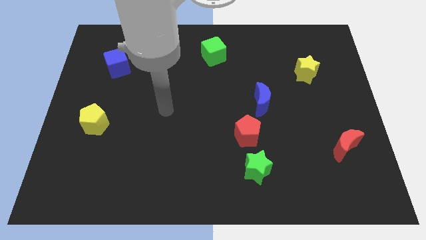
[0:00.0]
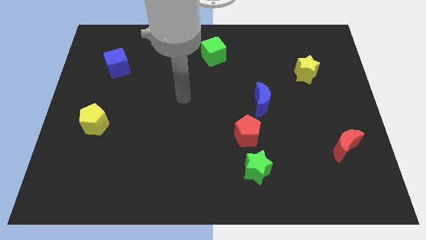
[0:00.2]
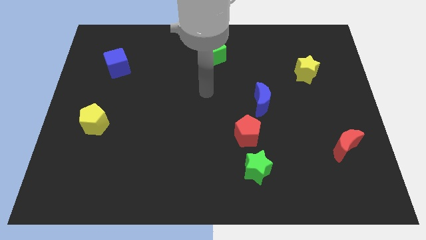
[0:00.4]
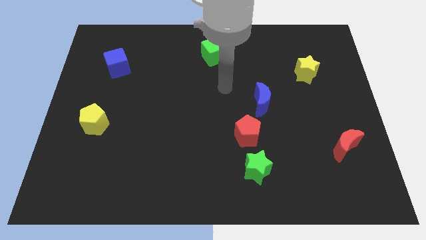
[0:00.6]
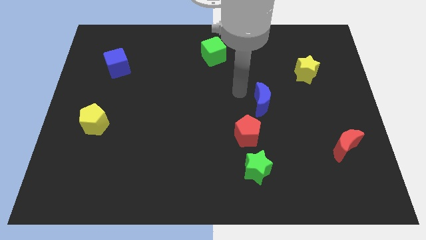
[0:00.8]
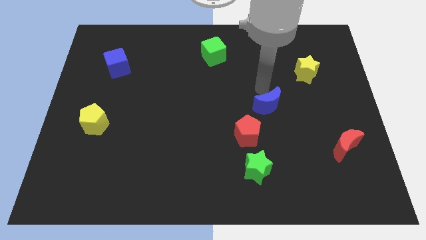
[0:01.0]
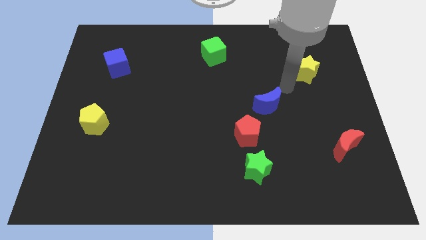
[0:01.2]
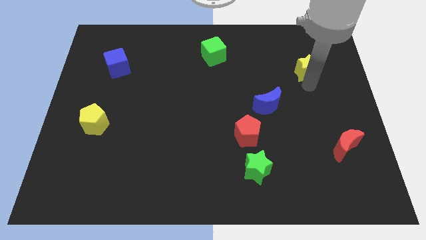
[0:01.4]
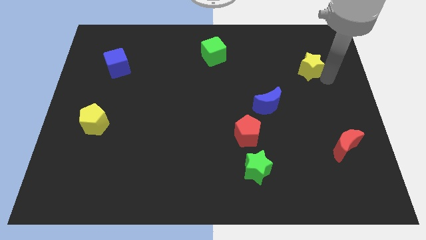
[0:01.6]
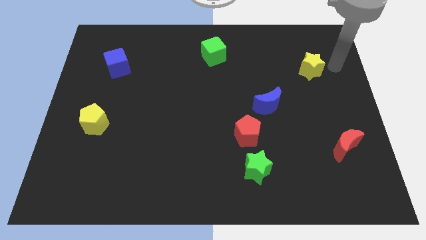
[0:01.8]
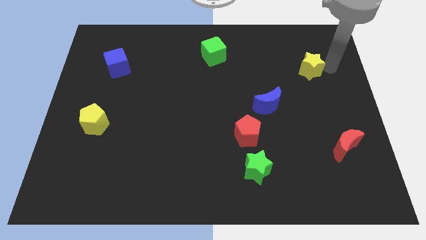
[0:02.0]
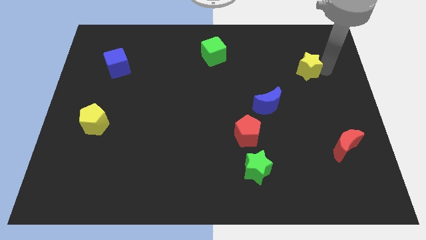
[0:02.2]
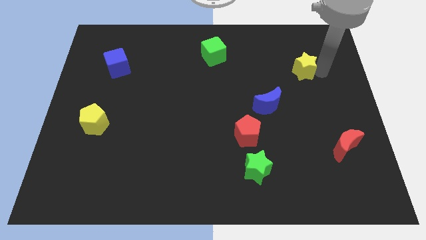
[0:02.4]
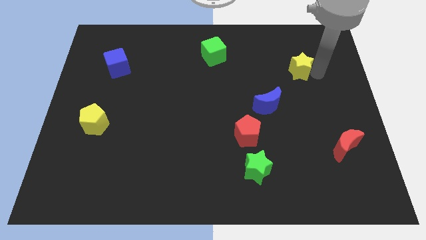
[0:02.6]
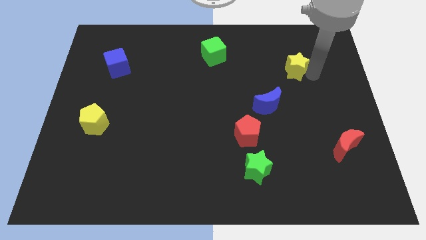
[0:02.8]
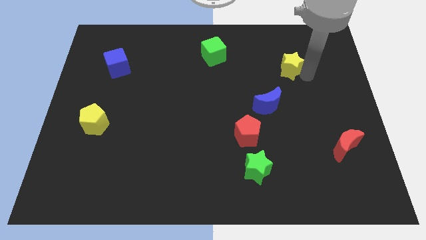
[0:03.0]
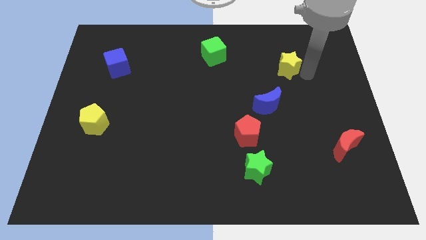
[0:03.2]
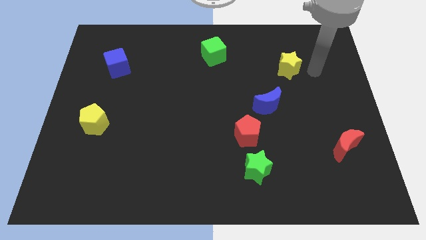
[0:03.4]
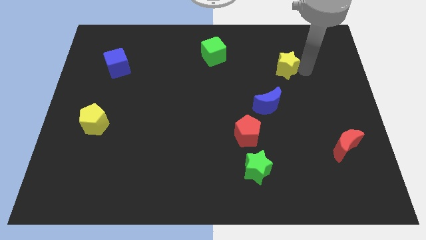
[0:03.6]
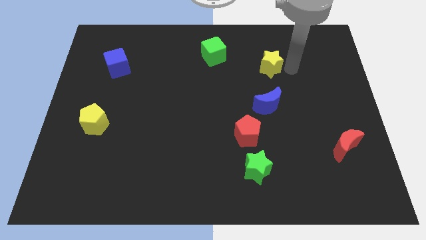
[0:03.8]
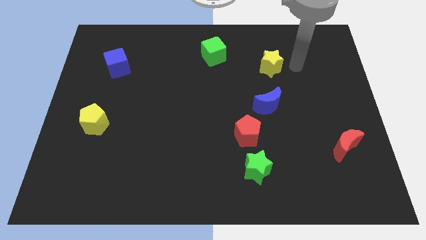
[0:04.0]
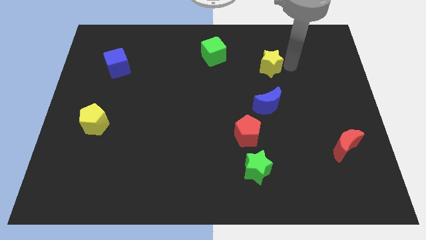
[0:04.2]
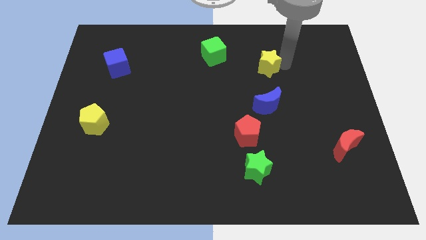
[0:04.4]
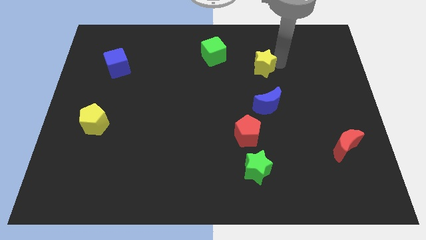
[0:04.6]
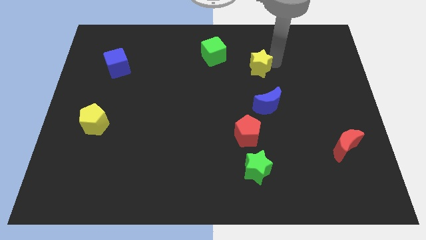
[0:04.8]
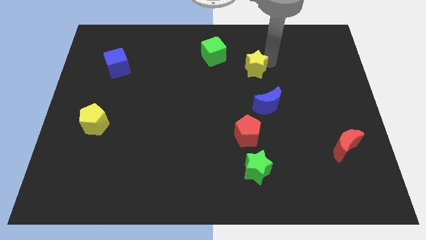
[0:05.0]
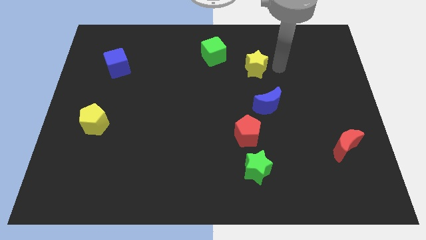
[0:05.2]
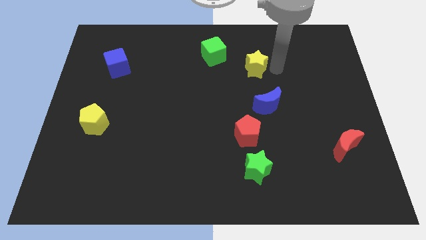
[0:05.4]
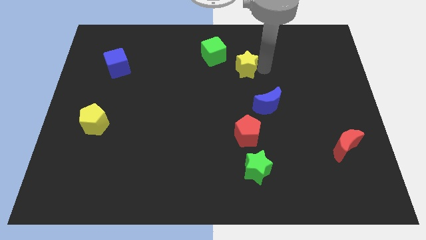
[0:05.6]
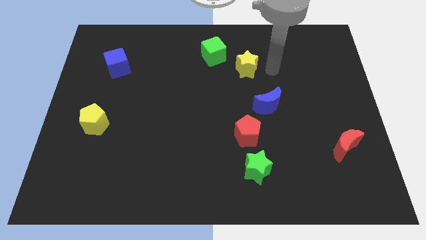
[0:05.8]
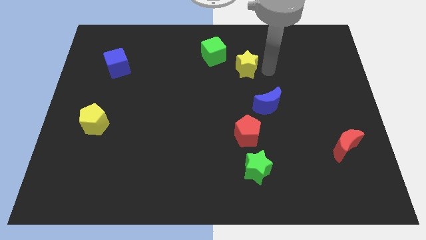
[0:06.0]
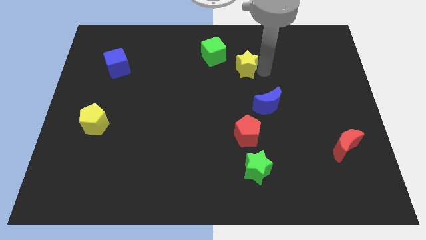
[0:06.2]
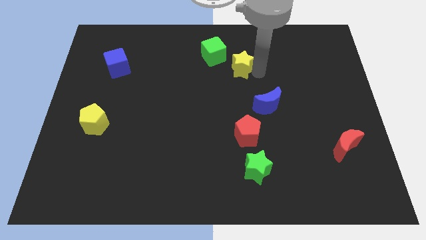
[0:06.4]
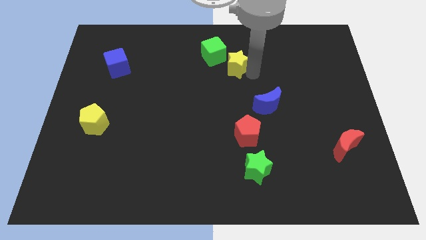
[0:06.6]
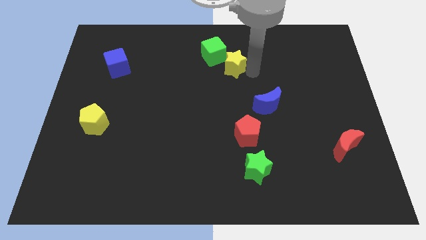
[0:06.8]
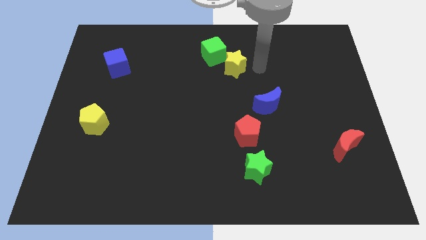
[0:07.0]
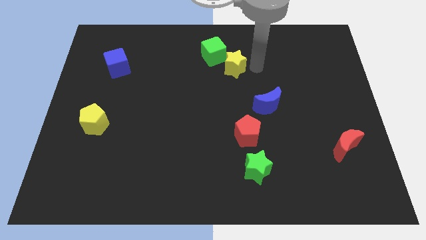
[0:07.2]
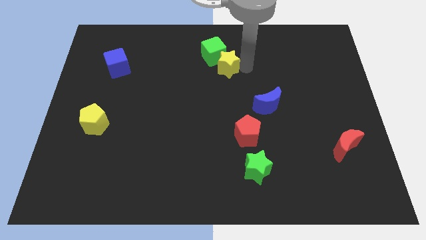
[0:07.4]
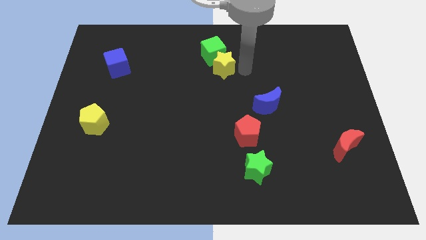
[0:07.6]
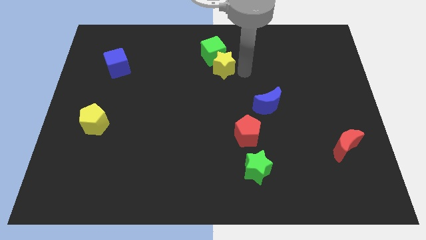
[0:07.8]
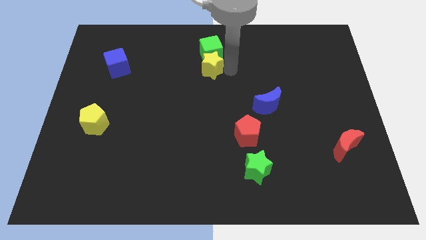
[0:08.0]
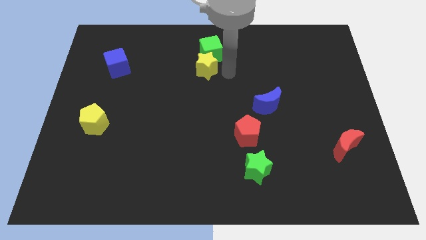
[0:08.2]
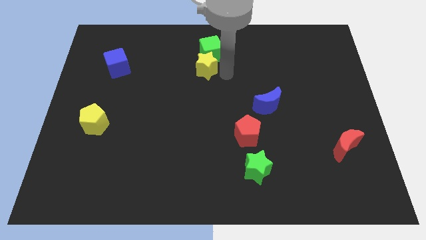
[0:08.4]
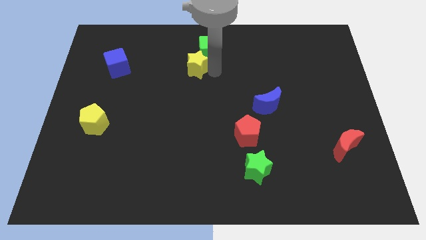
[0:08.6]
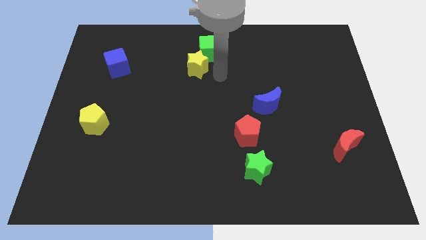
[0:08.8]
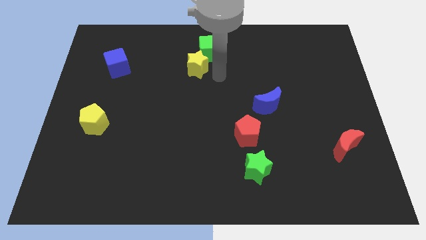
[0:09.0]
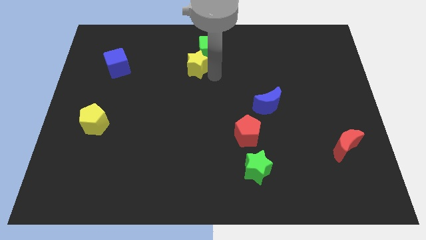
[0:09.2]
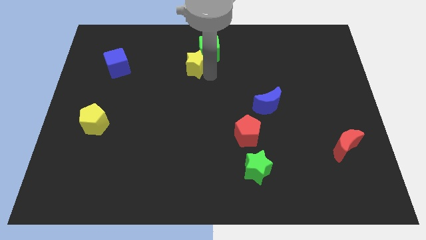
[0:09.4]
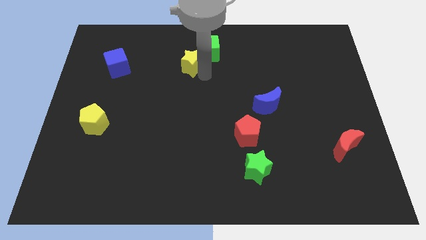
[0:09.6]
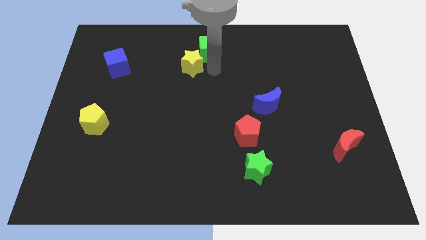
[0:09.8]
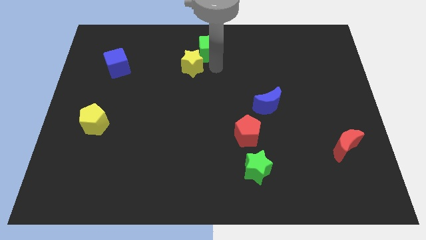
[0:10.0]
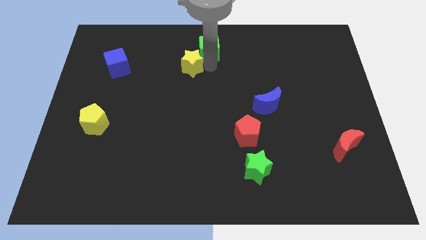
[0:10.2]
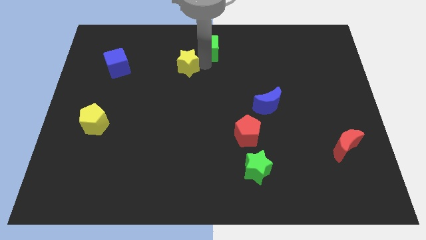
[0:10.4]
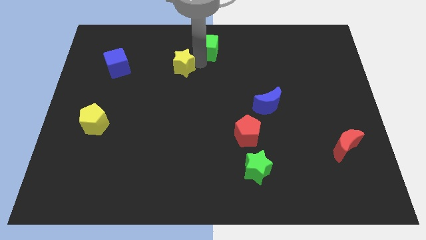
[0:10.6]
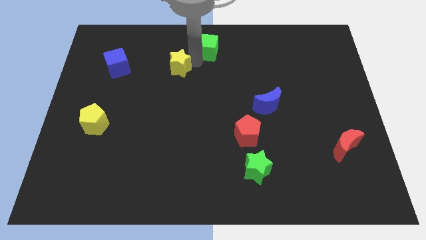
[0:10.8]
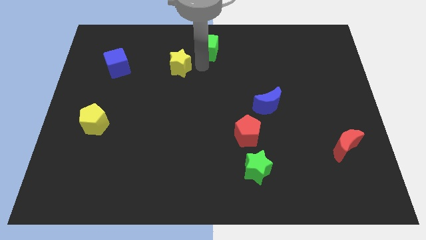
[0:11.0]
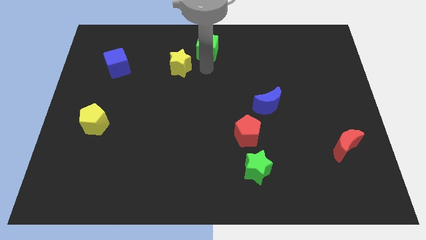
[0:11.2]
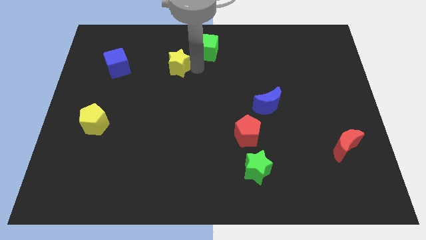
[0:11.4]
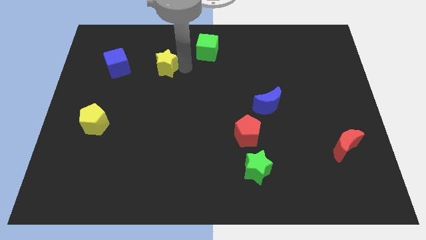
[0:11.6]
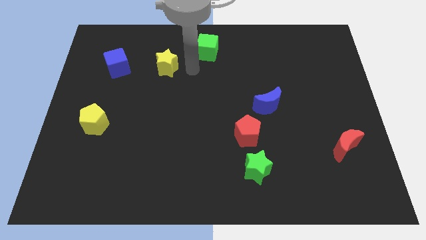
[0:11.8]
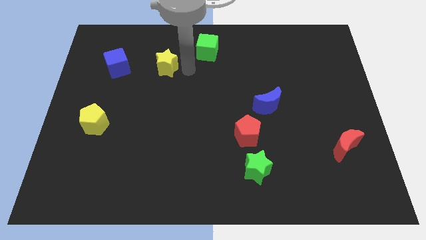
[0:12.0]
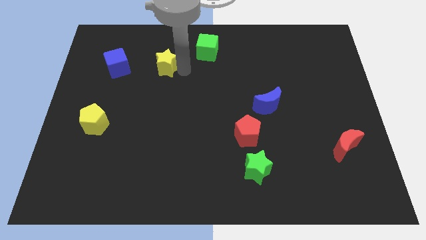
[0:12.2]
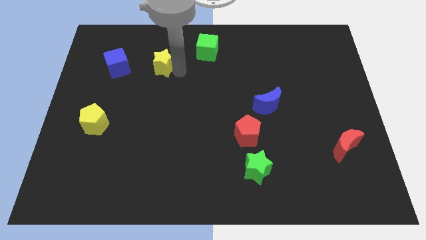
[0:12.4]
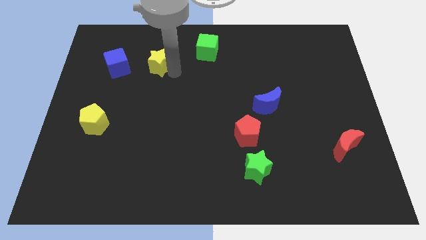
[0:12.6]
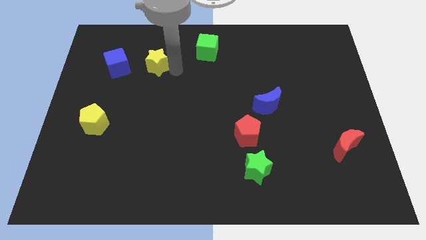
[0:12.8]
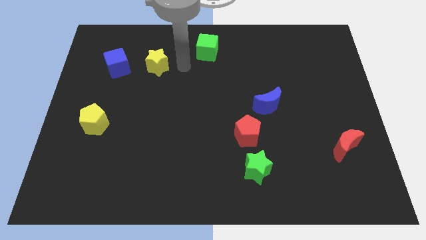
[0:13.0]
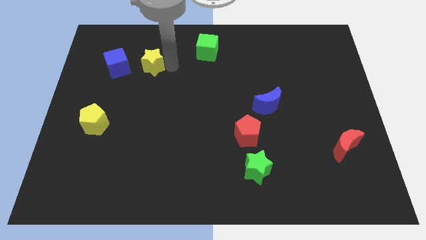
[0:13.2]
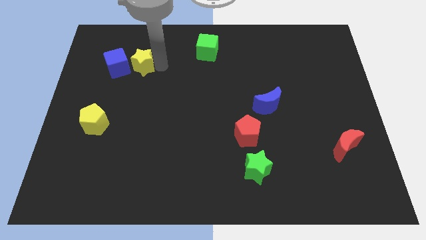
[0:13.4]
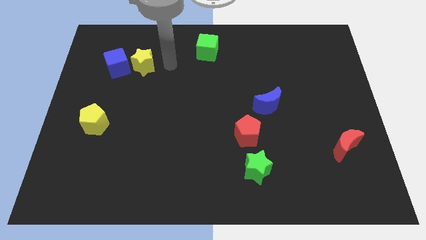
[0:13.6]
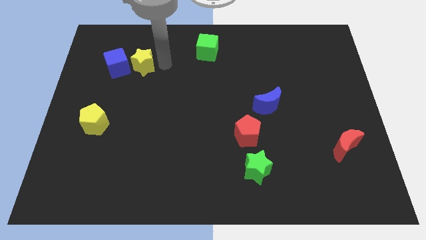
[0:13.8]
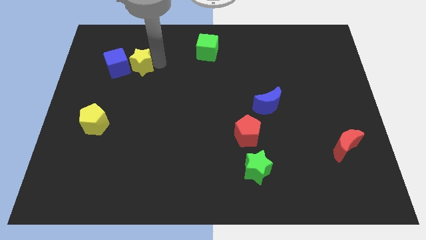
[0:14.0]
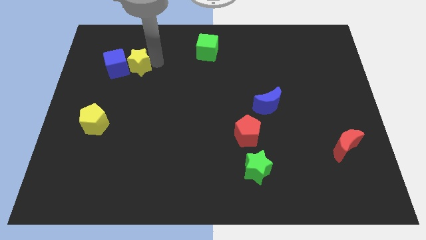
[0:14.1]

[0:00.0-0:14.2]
push the yellow star towards the blue cube
